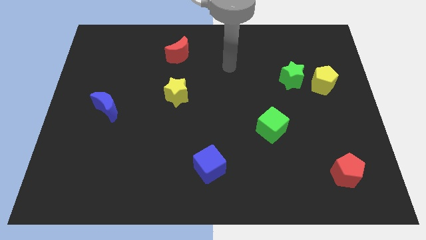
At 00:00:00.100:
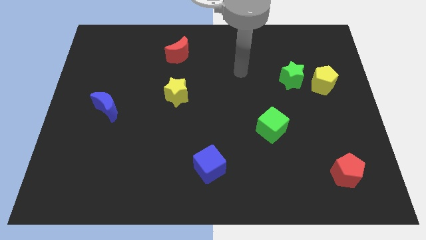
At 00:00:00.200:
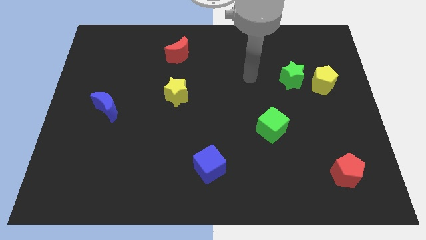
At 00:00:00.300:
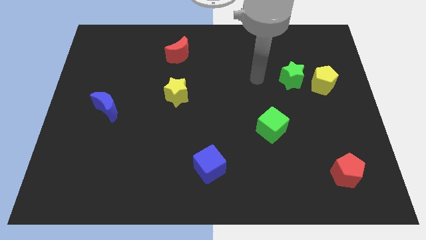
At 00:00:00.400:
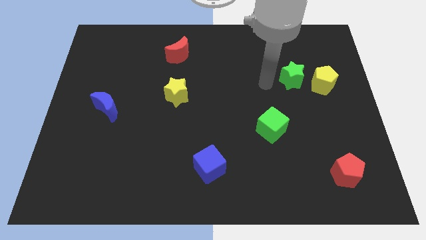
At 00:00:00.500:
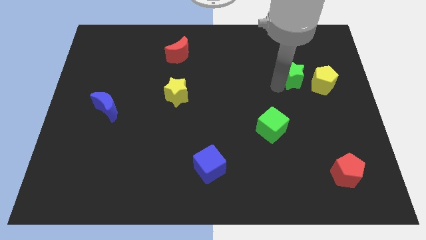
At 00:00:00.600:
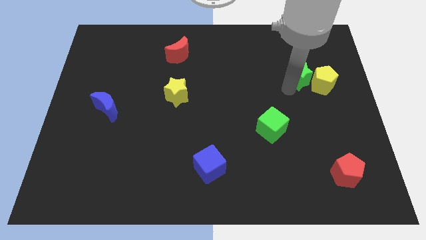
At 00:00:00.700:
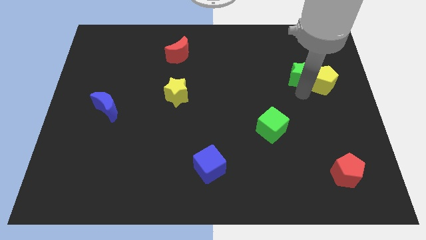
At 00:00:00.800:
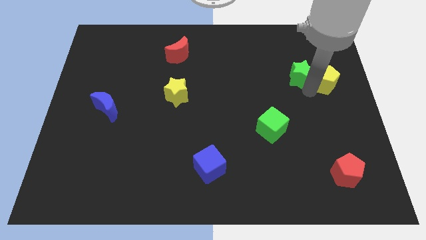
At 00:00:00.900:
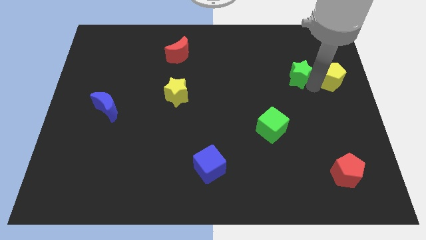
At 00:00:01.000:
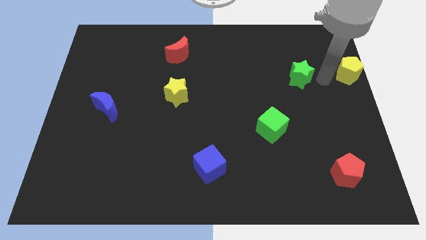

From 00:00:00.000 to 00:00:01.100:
separate the green star from the yellow pentagon

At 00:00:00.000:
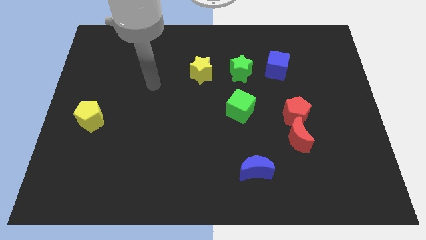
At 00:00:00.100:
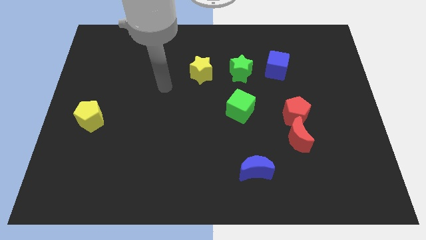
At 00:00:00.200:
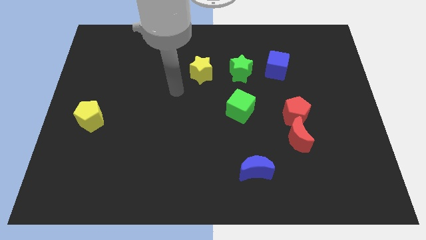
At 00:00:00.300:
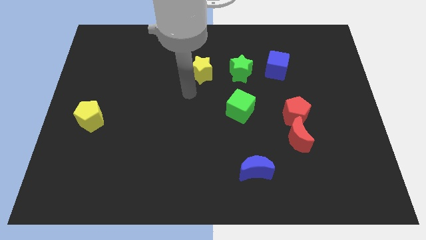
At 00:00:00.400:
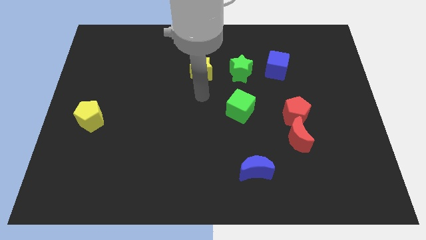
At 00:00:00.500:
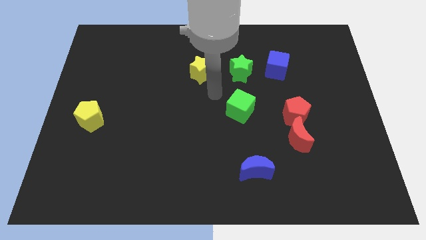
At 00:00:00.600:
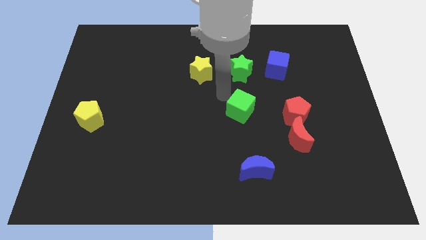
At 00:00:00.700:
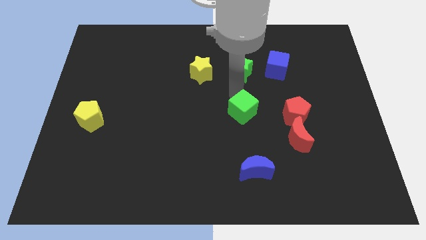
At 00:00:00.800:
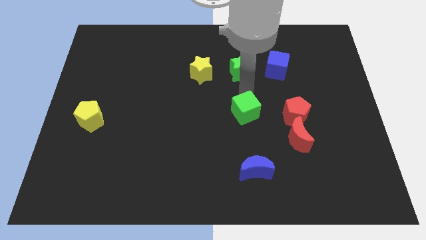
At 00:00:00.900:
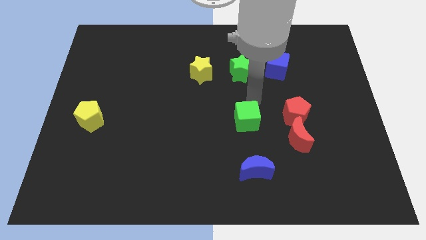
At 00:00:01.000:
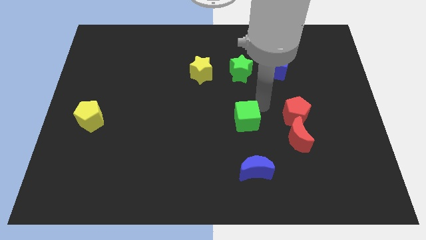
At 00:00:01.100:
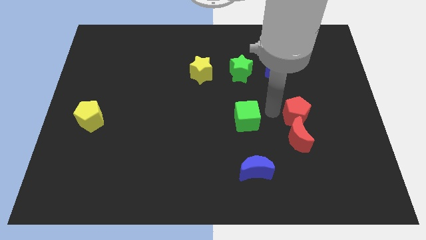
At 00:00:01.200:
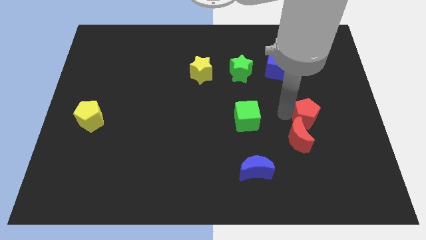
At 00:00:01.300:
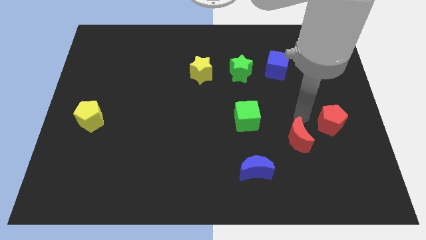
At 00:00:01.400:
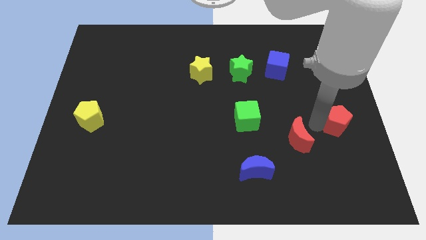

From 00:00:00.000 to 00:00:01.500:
separate the red moon from the red pentagon

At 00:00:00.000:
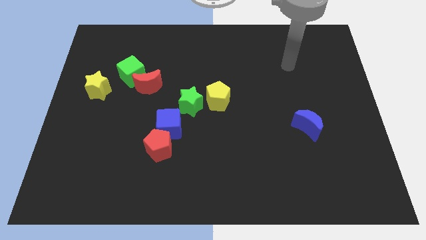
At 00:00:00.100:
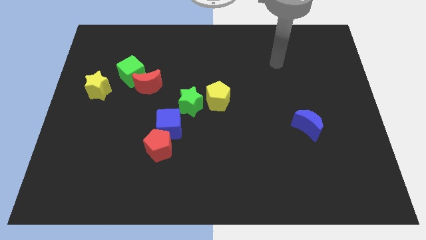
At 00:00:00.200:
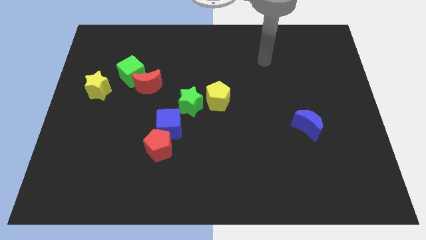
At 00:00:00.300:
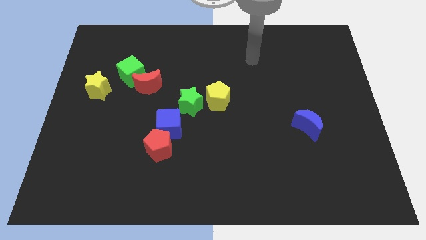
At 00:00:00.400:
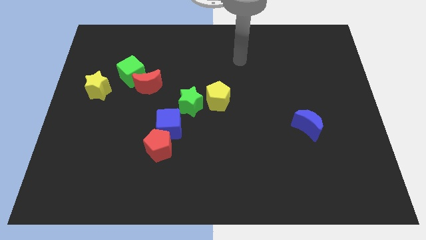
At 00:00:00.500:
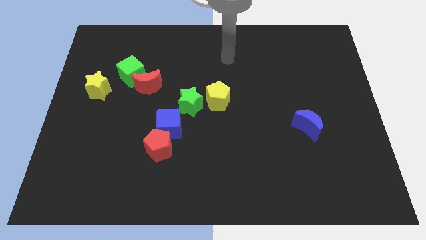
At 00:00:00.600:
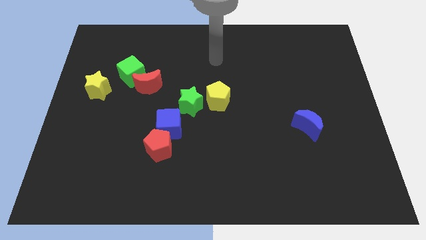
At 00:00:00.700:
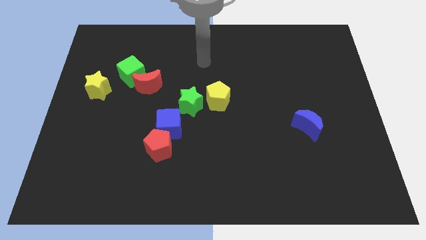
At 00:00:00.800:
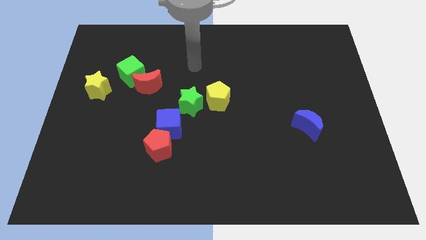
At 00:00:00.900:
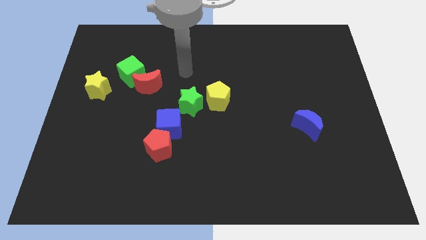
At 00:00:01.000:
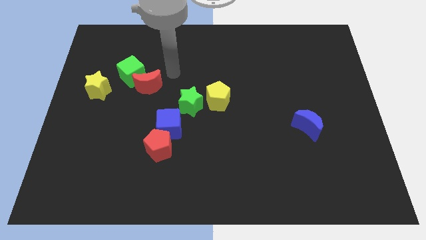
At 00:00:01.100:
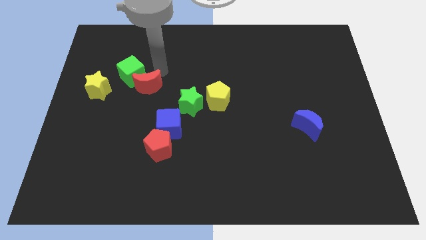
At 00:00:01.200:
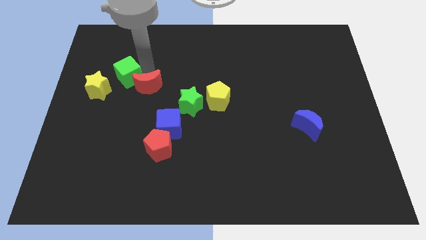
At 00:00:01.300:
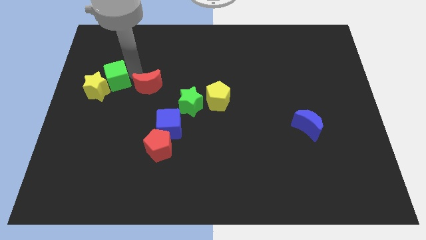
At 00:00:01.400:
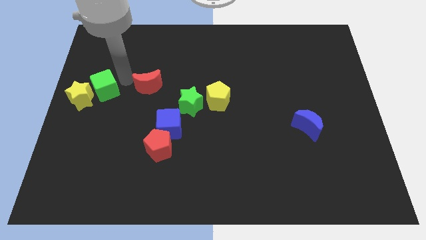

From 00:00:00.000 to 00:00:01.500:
move the red moon away from the green cube

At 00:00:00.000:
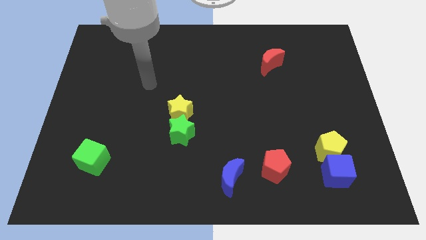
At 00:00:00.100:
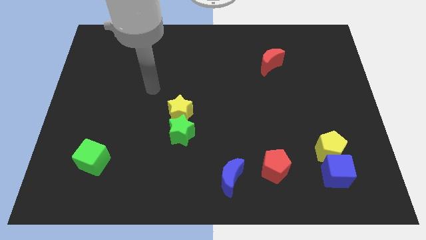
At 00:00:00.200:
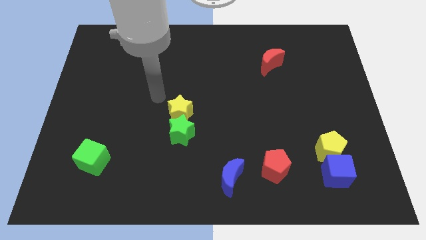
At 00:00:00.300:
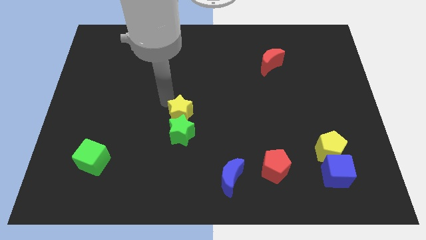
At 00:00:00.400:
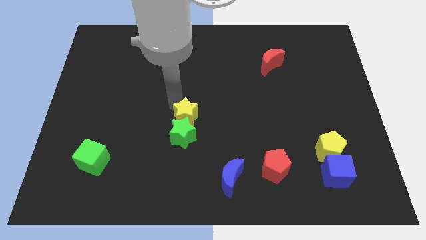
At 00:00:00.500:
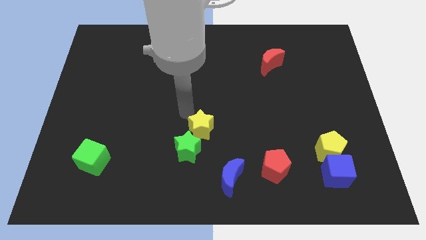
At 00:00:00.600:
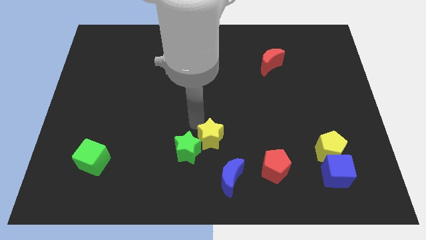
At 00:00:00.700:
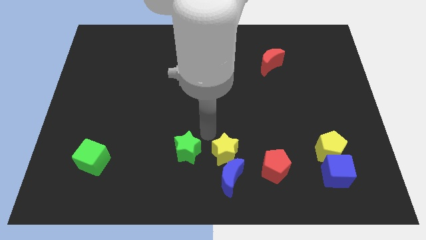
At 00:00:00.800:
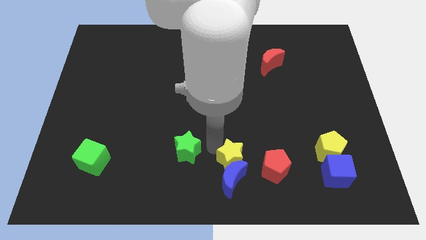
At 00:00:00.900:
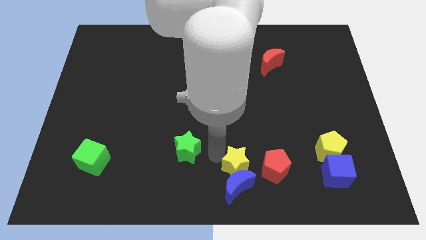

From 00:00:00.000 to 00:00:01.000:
separate the green star from the yellow star

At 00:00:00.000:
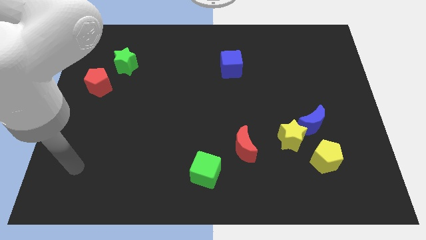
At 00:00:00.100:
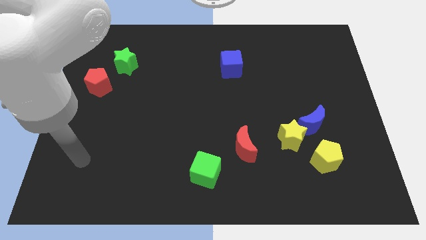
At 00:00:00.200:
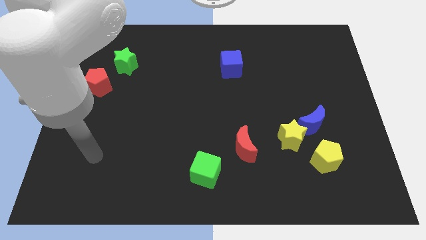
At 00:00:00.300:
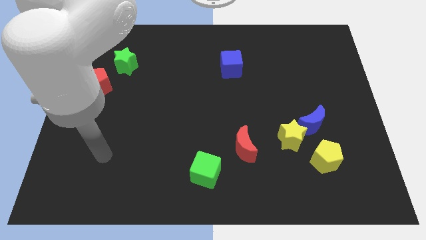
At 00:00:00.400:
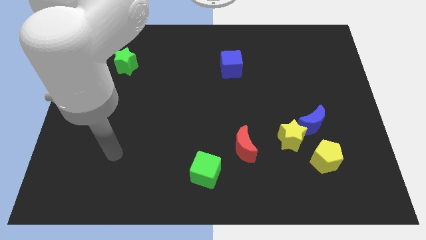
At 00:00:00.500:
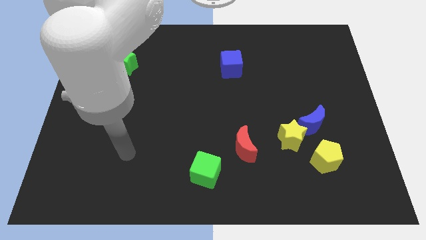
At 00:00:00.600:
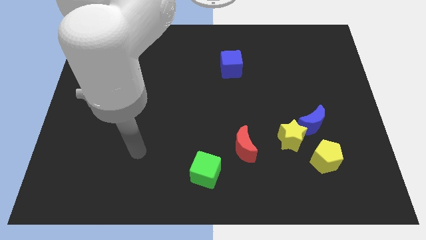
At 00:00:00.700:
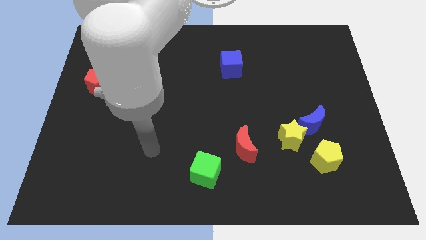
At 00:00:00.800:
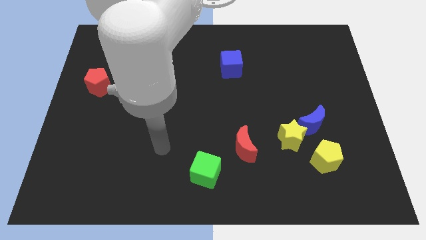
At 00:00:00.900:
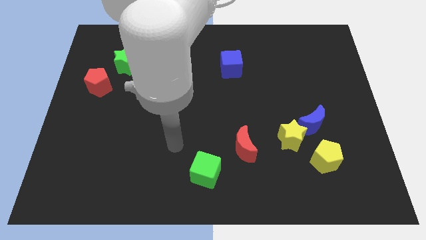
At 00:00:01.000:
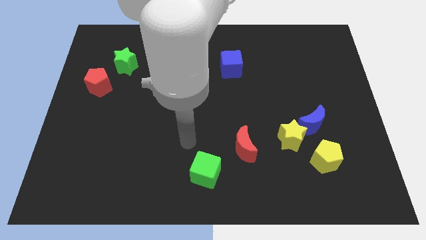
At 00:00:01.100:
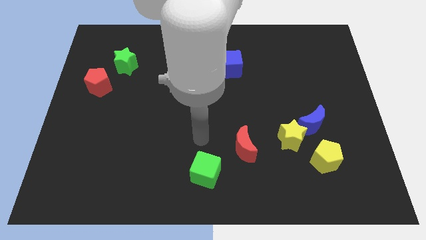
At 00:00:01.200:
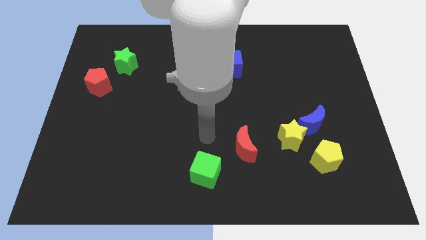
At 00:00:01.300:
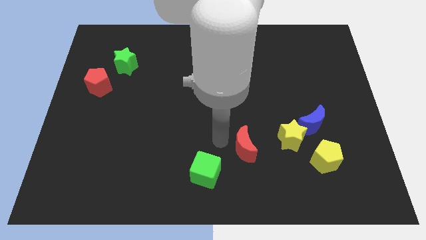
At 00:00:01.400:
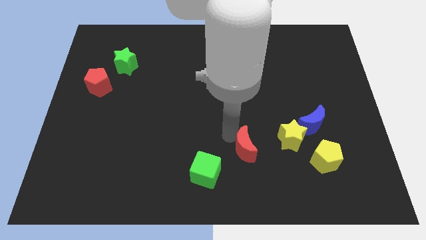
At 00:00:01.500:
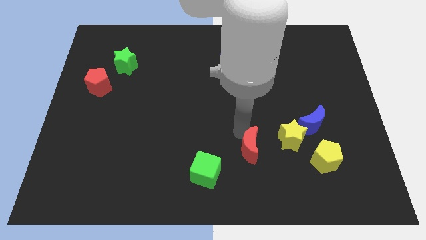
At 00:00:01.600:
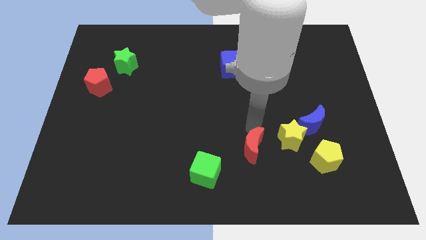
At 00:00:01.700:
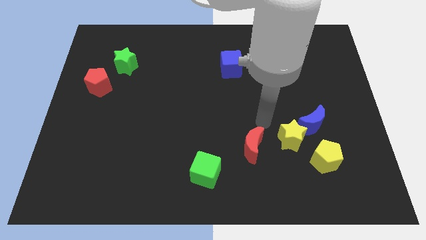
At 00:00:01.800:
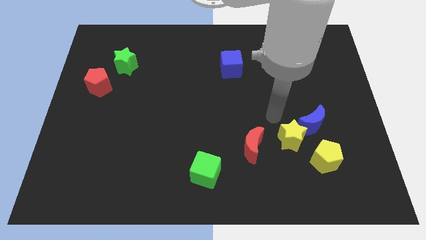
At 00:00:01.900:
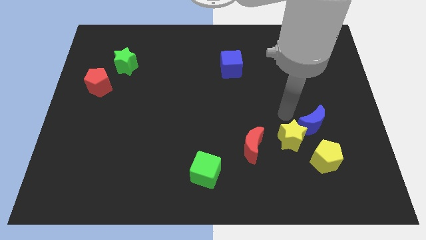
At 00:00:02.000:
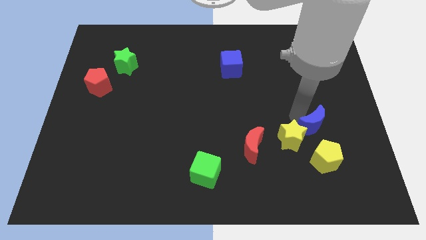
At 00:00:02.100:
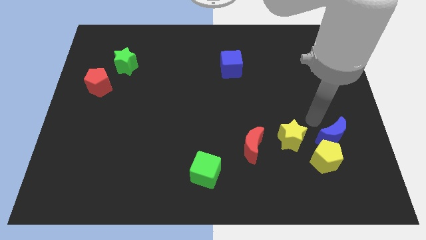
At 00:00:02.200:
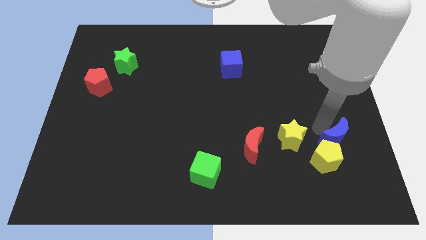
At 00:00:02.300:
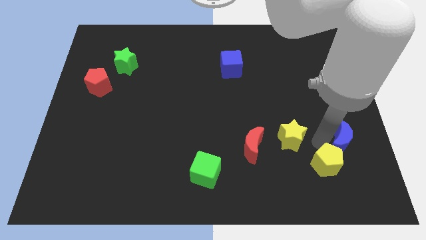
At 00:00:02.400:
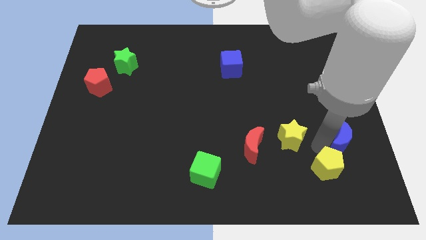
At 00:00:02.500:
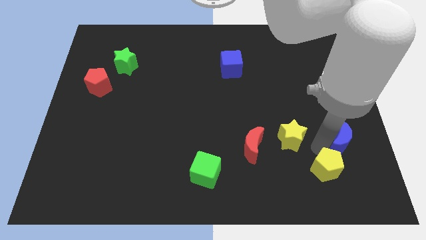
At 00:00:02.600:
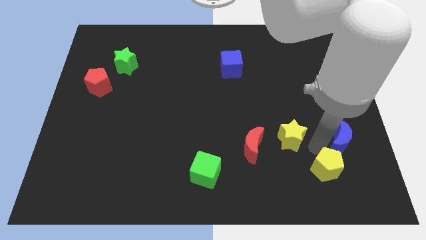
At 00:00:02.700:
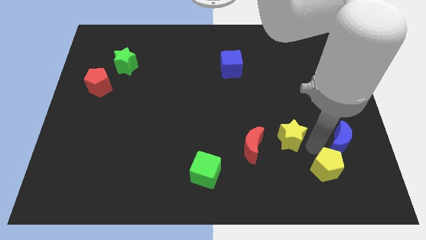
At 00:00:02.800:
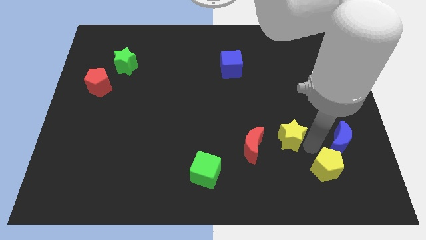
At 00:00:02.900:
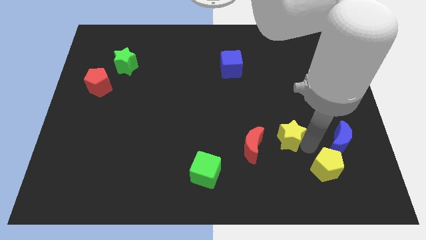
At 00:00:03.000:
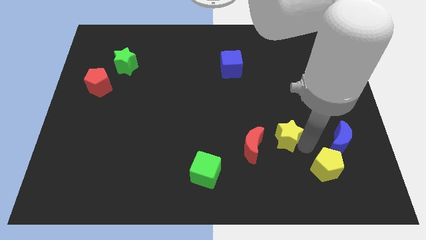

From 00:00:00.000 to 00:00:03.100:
pull the yellow star apart from the blue moon and yellow pentagon

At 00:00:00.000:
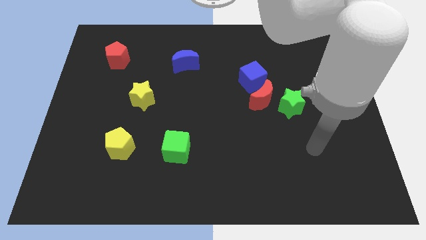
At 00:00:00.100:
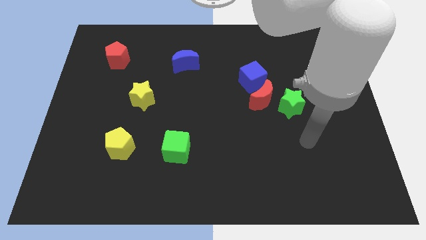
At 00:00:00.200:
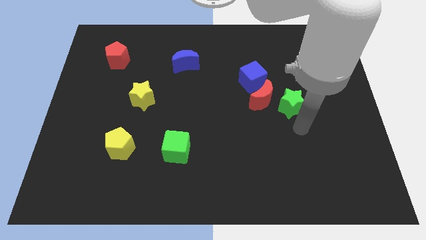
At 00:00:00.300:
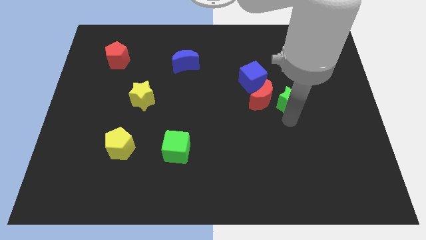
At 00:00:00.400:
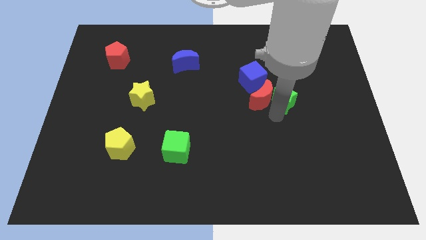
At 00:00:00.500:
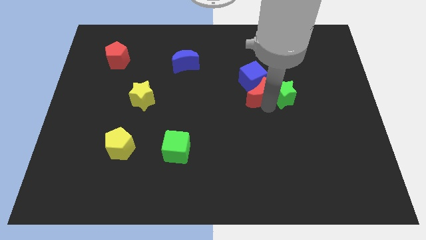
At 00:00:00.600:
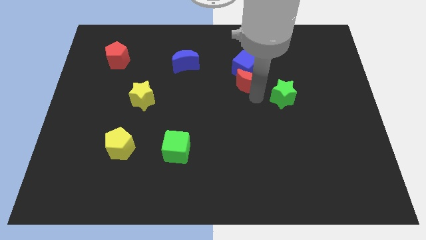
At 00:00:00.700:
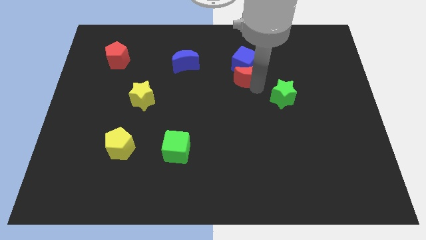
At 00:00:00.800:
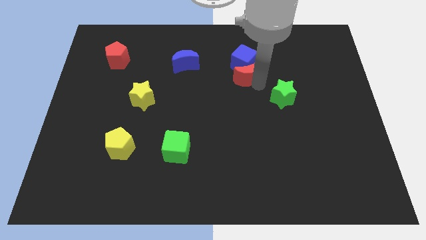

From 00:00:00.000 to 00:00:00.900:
move the green star away from the red moon
